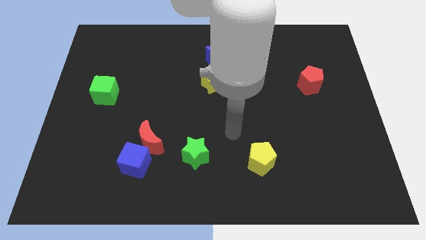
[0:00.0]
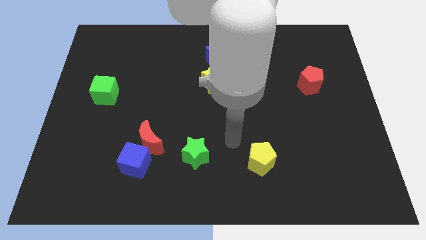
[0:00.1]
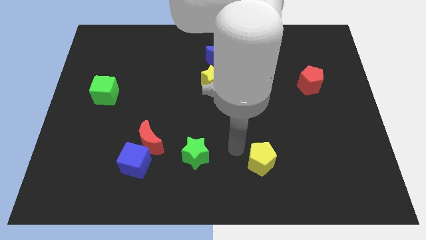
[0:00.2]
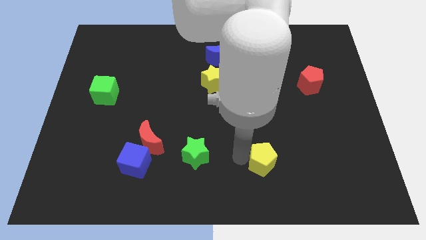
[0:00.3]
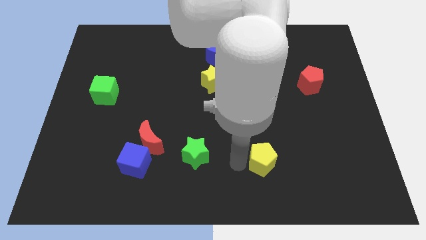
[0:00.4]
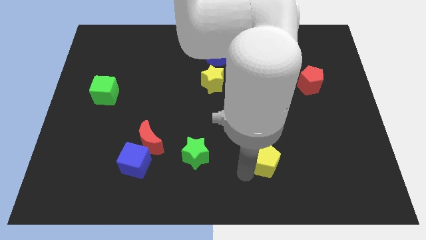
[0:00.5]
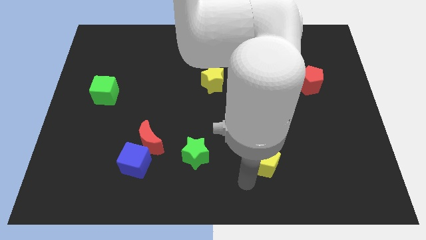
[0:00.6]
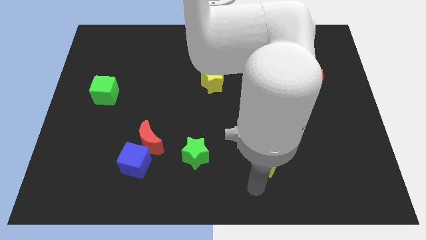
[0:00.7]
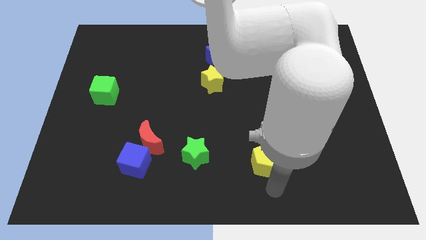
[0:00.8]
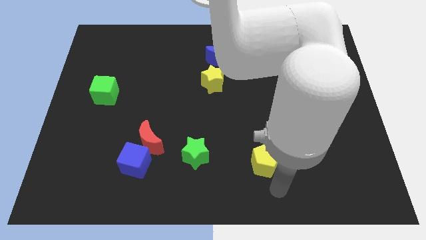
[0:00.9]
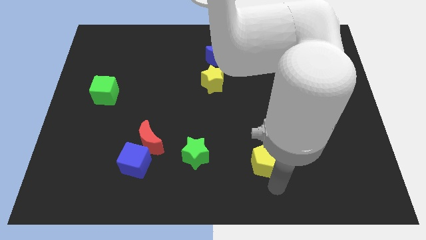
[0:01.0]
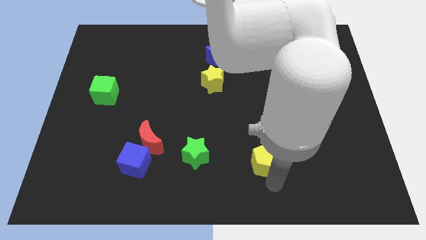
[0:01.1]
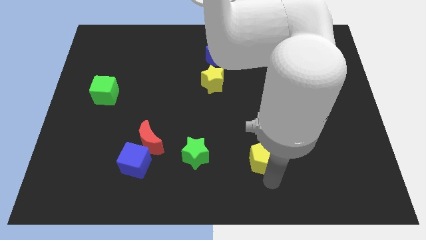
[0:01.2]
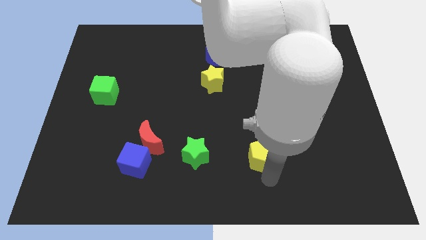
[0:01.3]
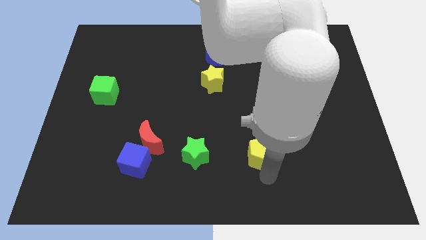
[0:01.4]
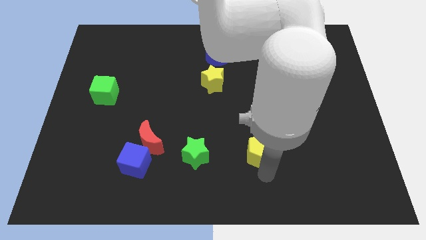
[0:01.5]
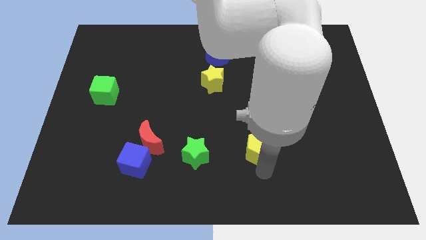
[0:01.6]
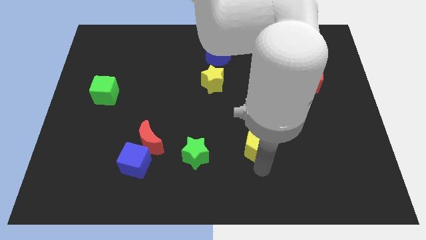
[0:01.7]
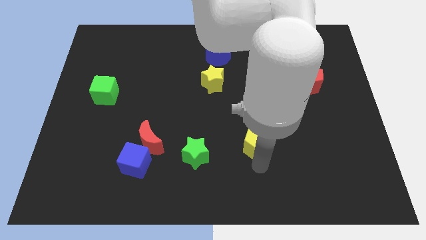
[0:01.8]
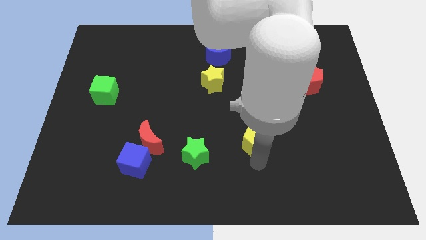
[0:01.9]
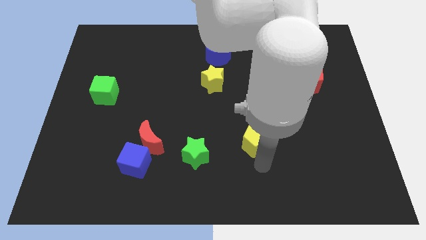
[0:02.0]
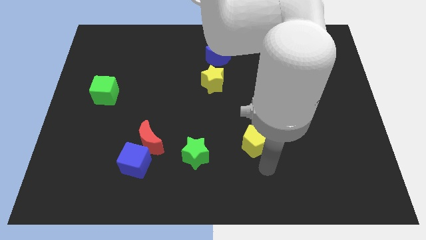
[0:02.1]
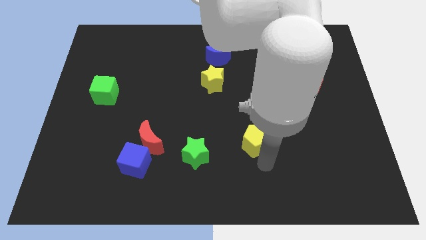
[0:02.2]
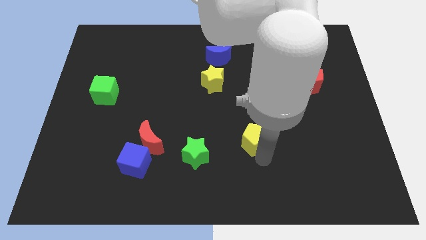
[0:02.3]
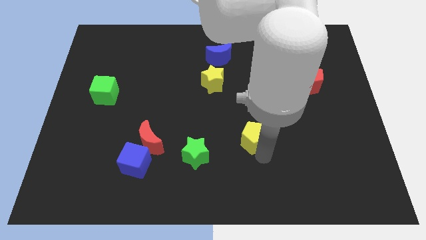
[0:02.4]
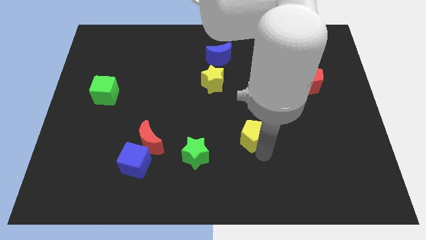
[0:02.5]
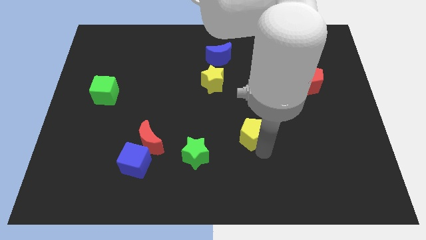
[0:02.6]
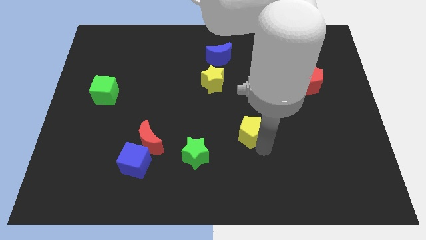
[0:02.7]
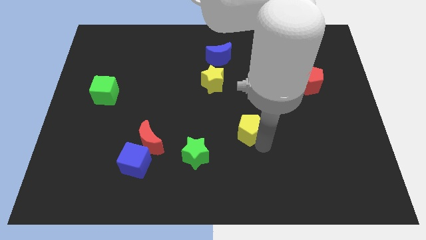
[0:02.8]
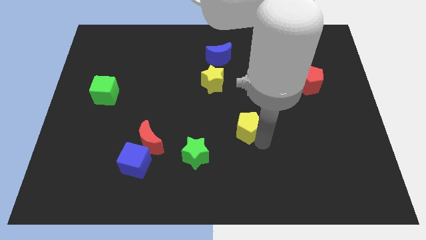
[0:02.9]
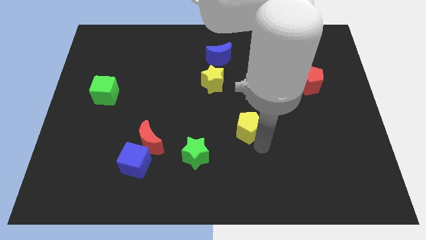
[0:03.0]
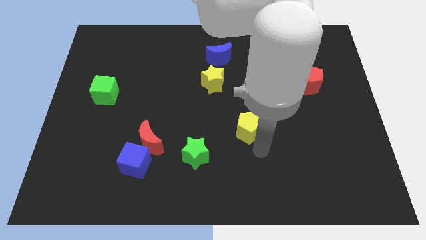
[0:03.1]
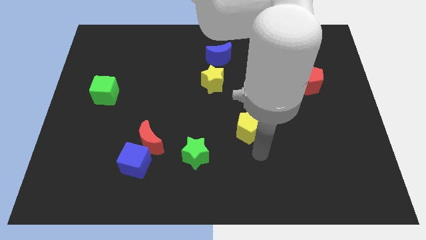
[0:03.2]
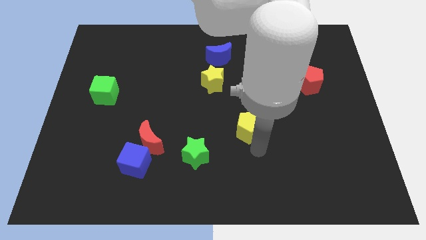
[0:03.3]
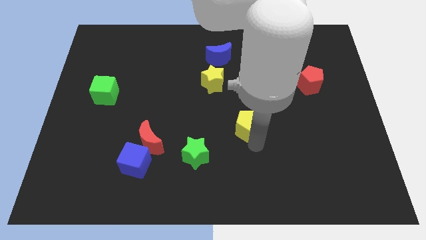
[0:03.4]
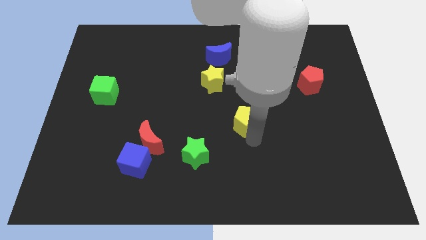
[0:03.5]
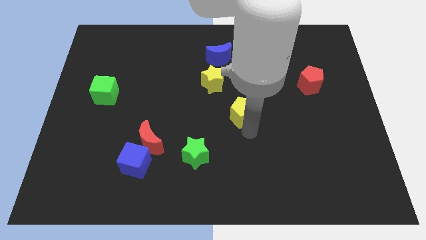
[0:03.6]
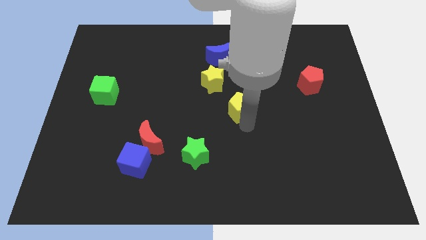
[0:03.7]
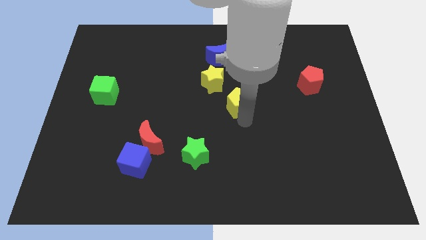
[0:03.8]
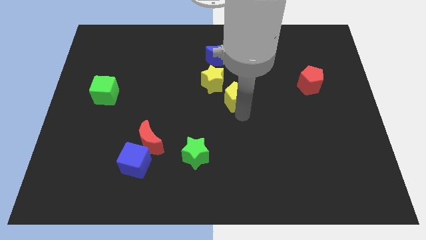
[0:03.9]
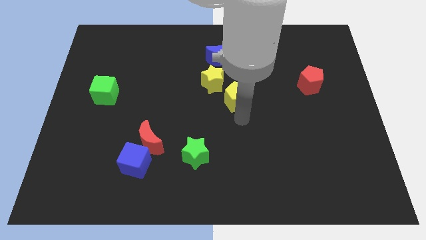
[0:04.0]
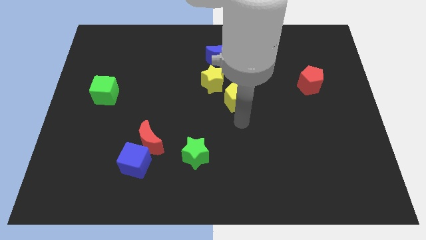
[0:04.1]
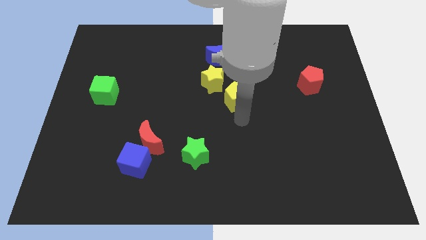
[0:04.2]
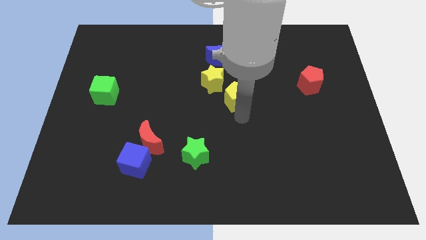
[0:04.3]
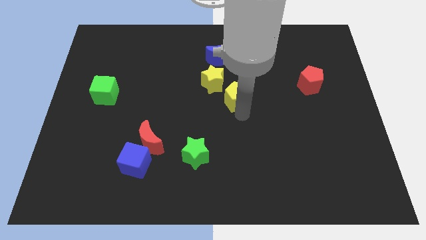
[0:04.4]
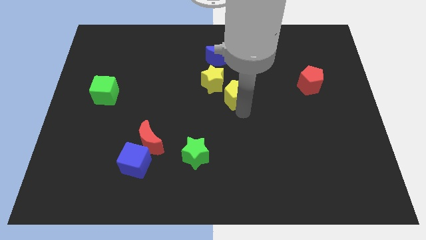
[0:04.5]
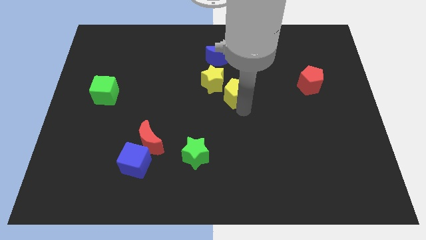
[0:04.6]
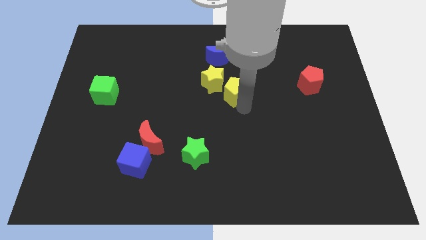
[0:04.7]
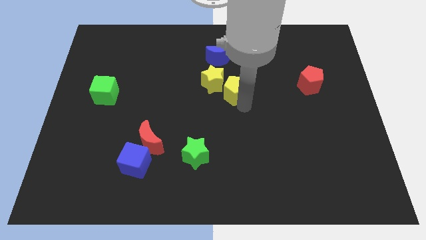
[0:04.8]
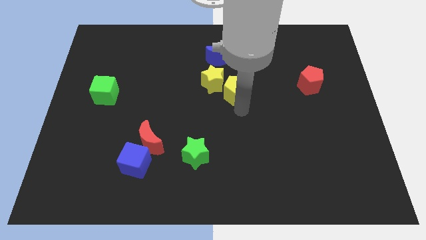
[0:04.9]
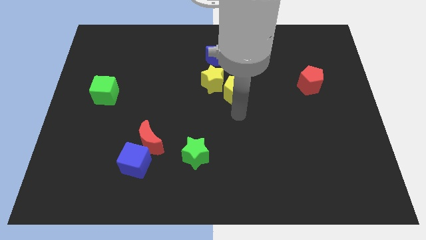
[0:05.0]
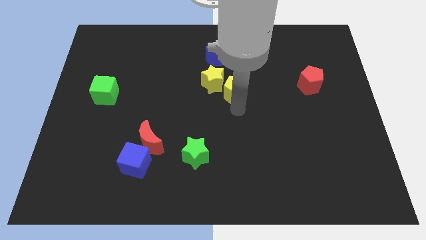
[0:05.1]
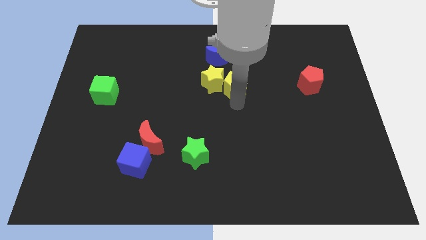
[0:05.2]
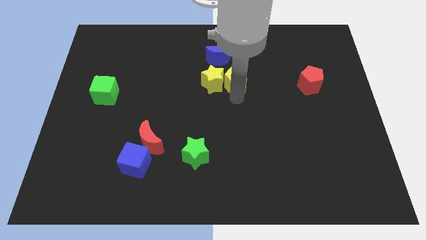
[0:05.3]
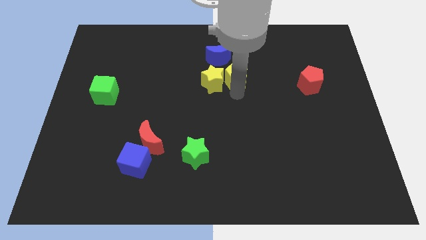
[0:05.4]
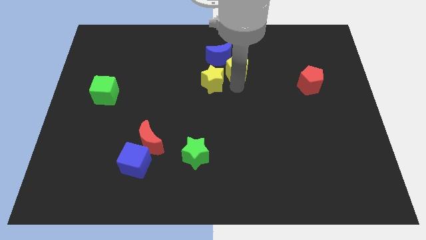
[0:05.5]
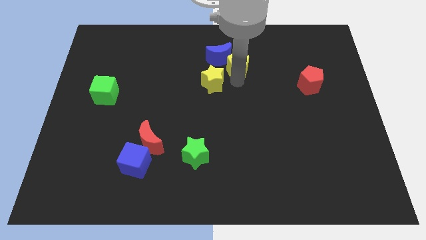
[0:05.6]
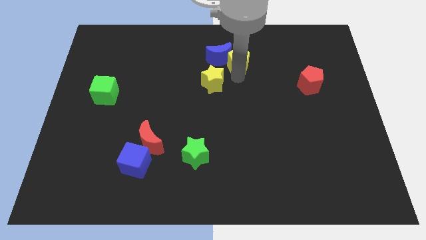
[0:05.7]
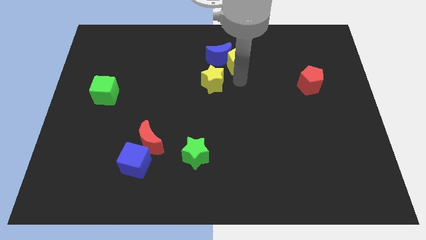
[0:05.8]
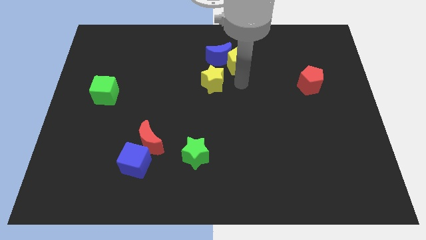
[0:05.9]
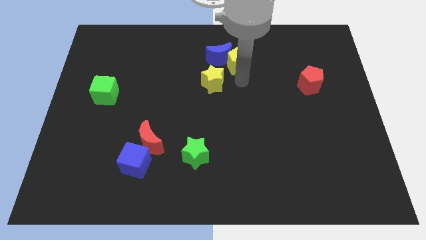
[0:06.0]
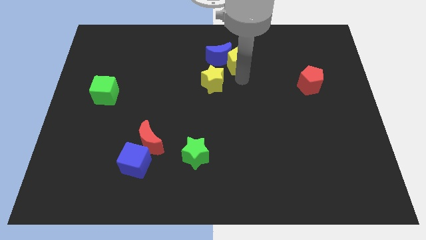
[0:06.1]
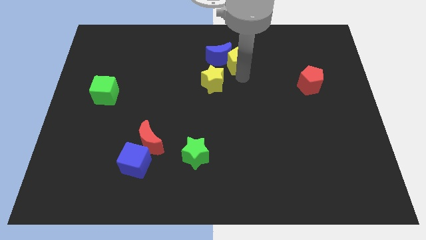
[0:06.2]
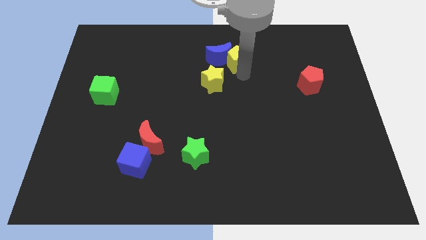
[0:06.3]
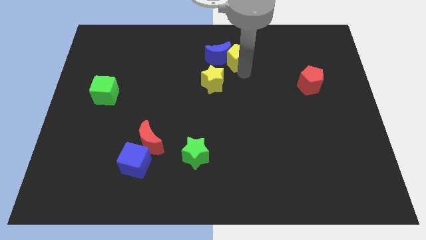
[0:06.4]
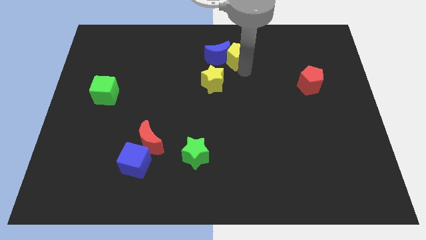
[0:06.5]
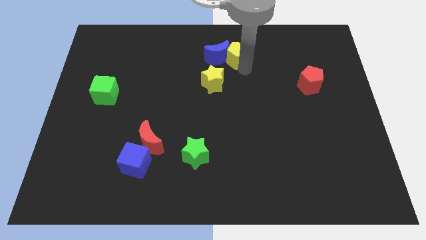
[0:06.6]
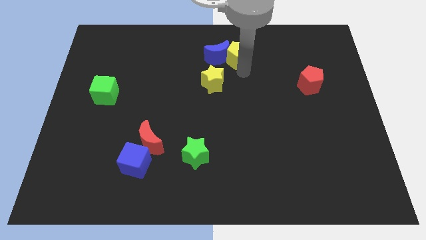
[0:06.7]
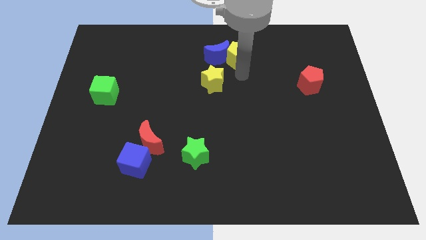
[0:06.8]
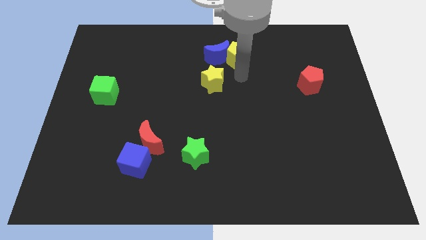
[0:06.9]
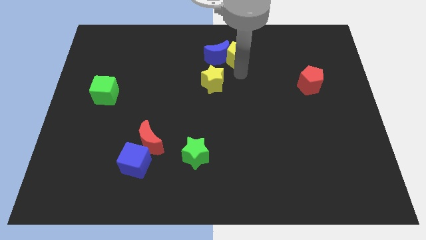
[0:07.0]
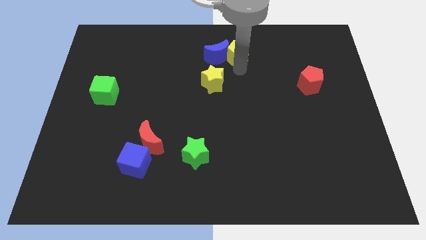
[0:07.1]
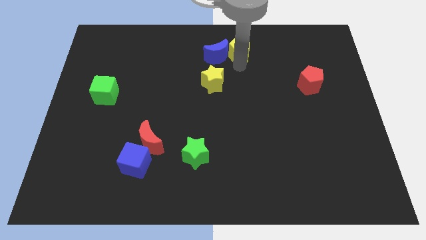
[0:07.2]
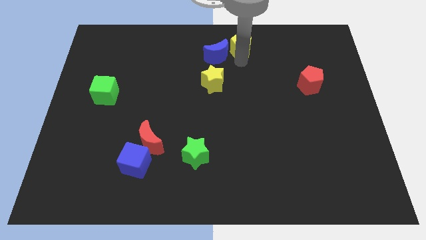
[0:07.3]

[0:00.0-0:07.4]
put the yellow pentagon to the towards your base
